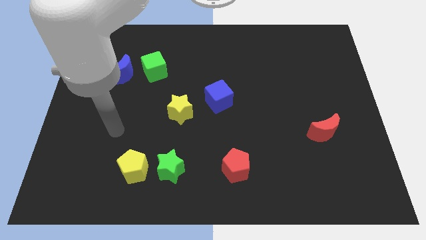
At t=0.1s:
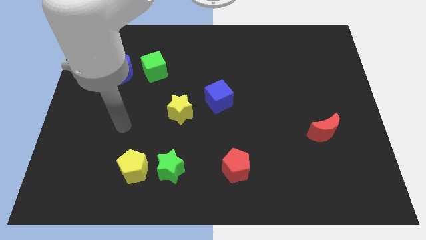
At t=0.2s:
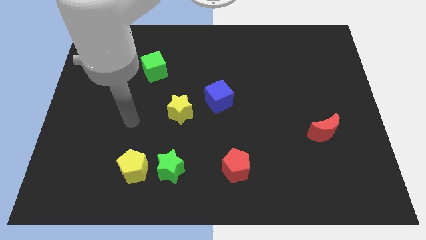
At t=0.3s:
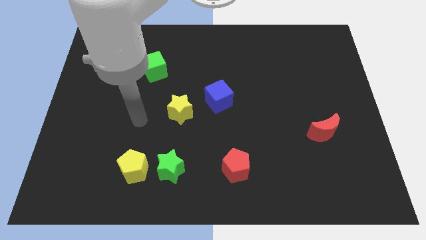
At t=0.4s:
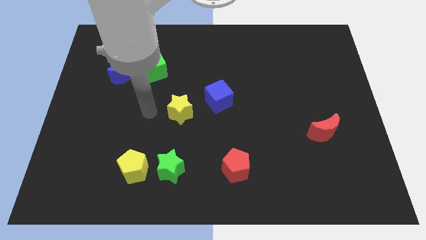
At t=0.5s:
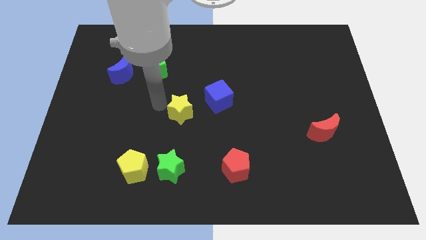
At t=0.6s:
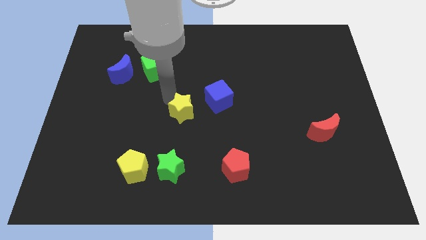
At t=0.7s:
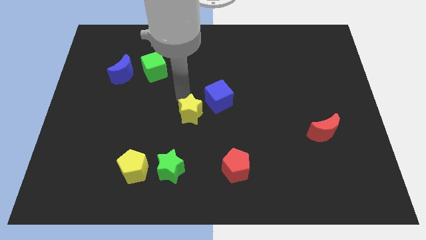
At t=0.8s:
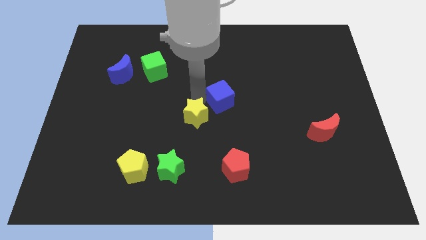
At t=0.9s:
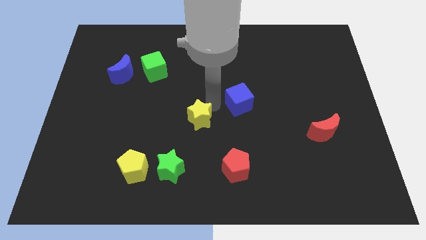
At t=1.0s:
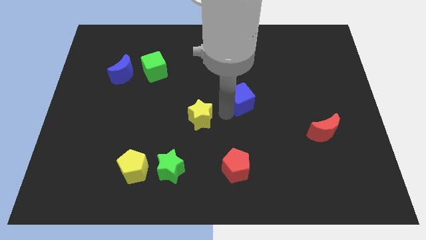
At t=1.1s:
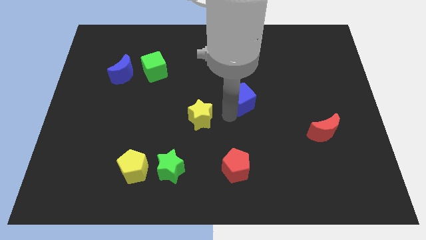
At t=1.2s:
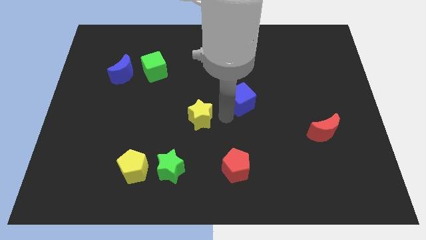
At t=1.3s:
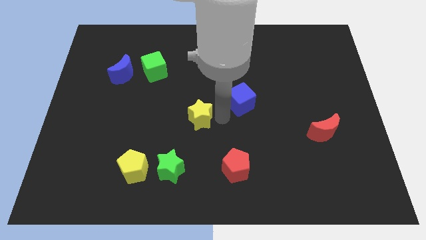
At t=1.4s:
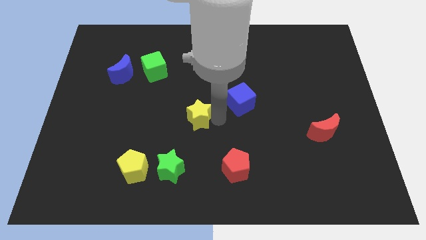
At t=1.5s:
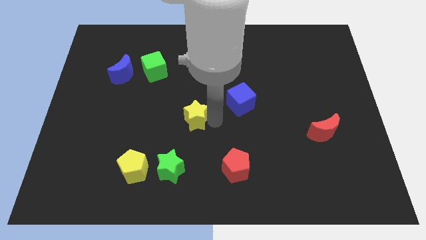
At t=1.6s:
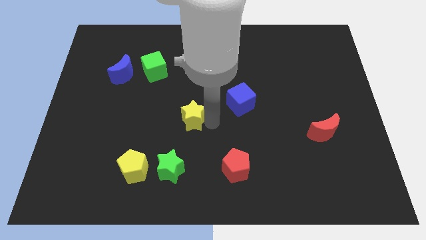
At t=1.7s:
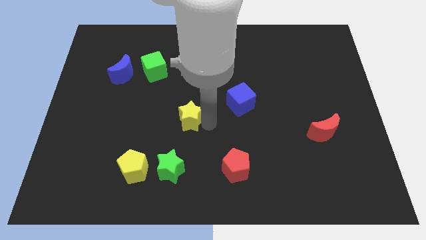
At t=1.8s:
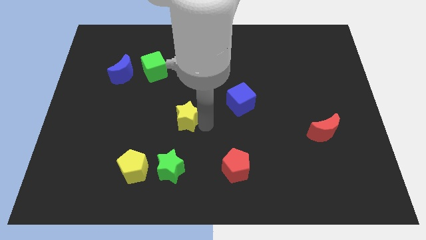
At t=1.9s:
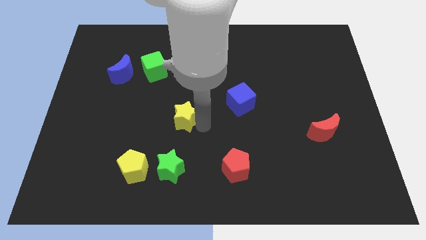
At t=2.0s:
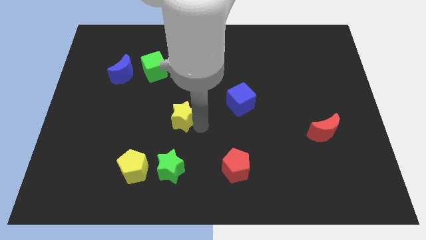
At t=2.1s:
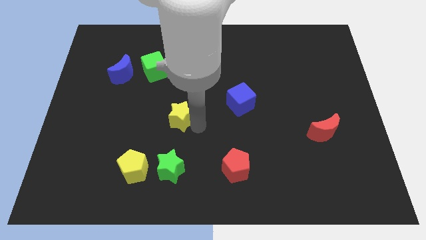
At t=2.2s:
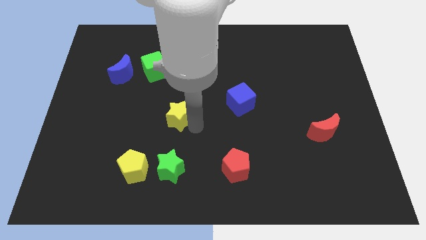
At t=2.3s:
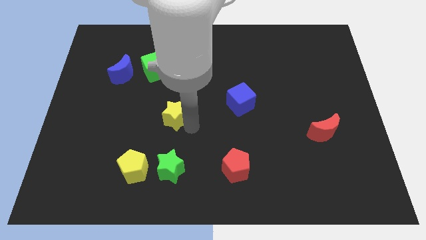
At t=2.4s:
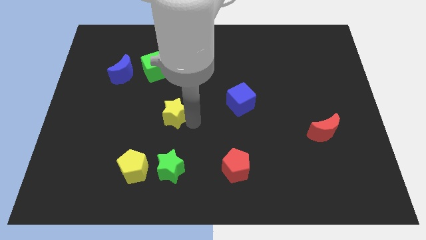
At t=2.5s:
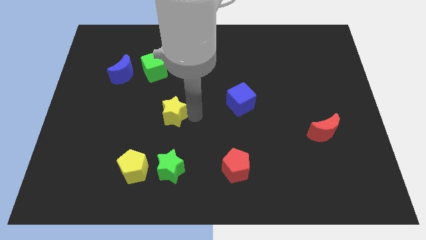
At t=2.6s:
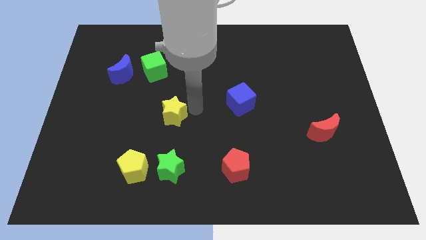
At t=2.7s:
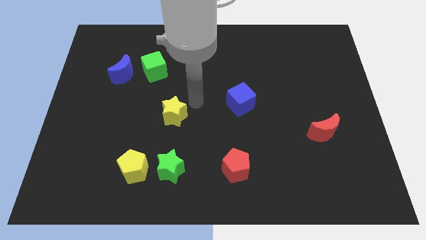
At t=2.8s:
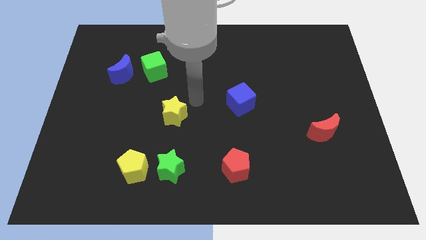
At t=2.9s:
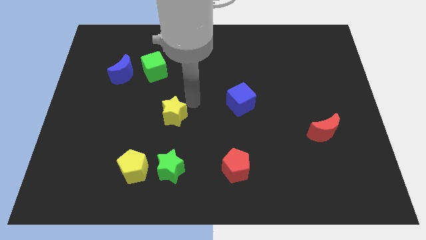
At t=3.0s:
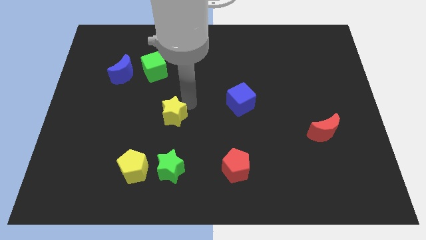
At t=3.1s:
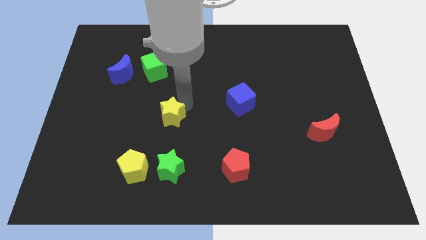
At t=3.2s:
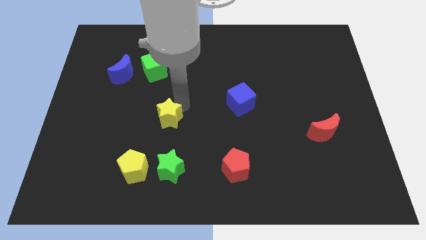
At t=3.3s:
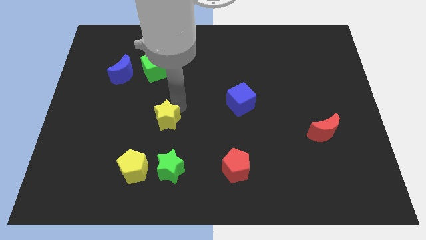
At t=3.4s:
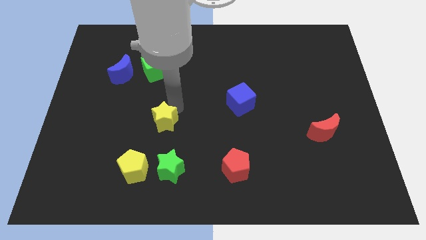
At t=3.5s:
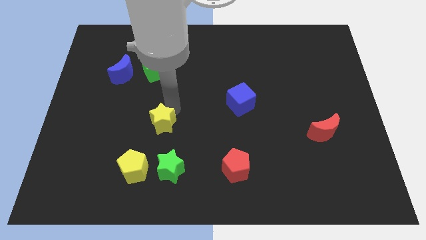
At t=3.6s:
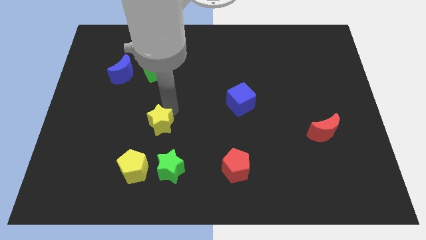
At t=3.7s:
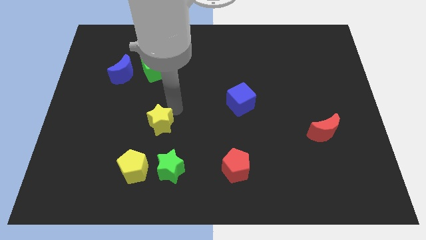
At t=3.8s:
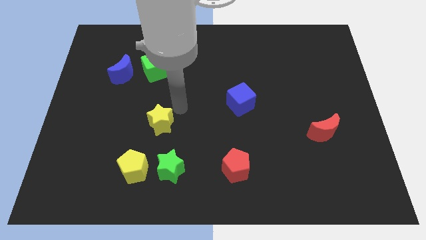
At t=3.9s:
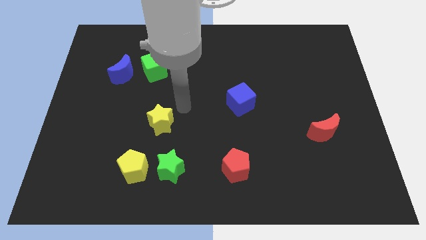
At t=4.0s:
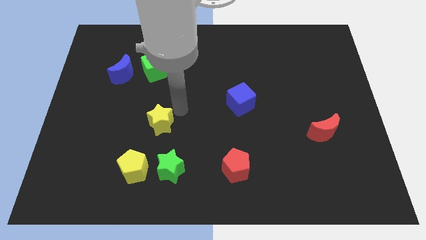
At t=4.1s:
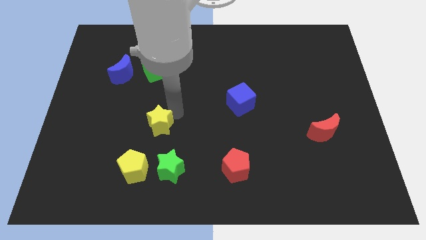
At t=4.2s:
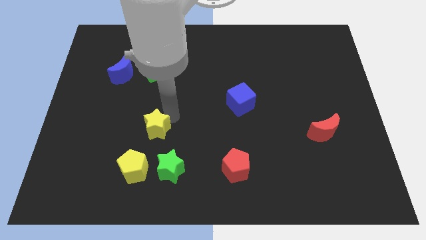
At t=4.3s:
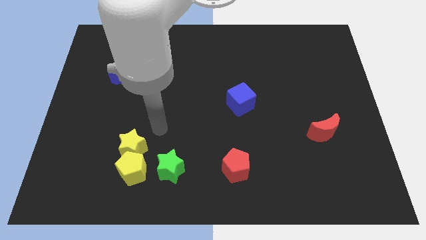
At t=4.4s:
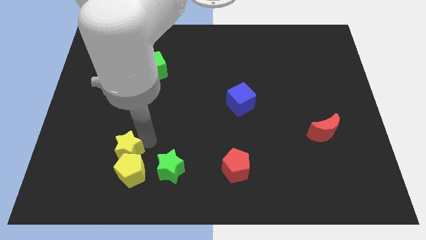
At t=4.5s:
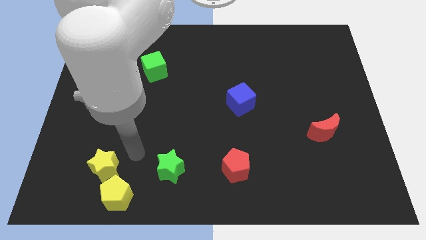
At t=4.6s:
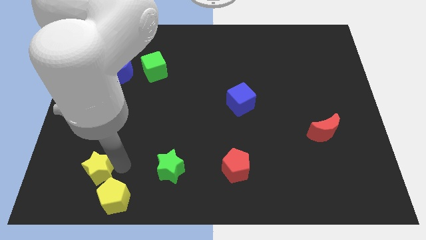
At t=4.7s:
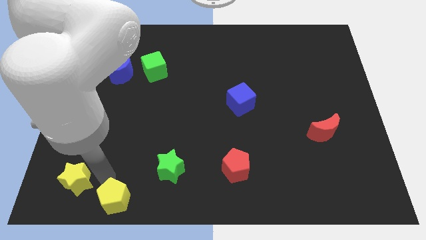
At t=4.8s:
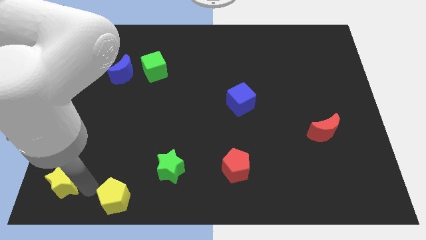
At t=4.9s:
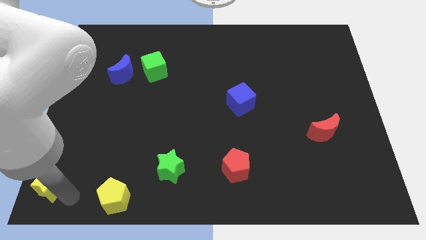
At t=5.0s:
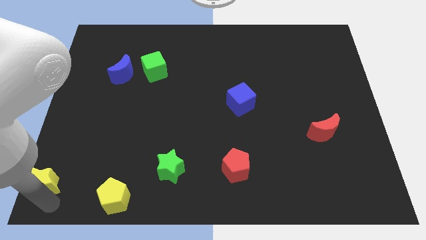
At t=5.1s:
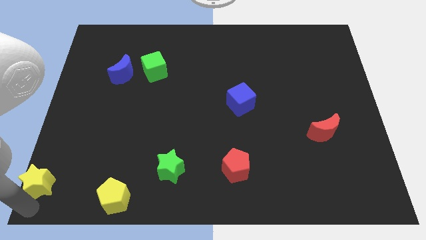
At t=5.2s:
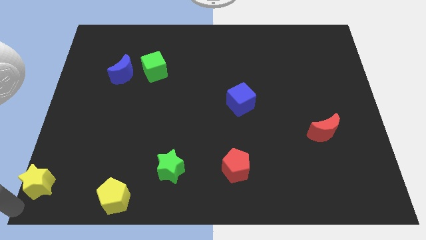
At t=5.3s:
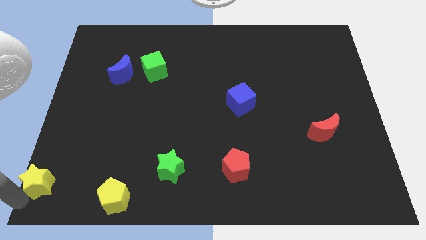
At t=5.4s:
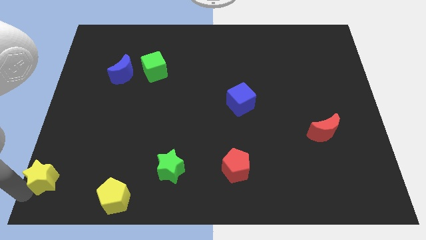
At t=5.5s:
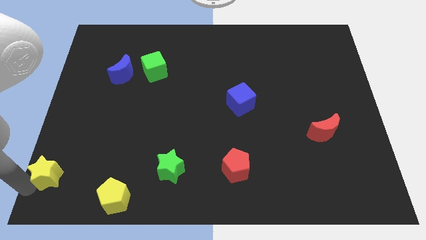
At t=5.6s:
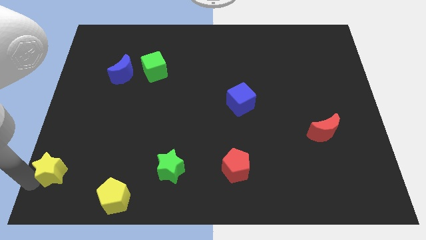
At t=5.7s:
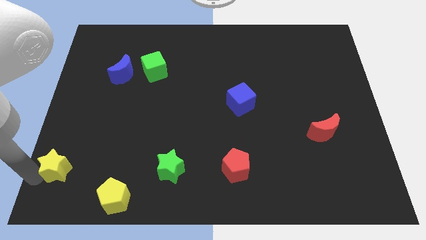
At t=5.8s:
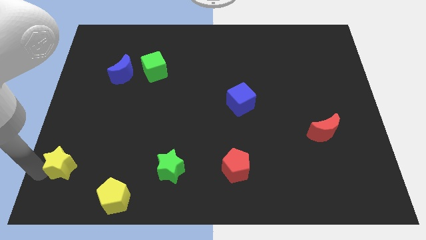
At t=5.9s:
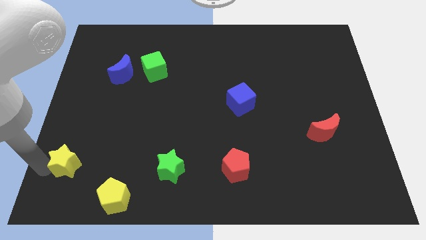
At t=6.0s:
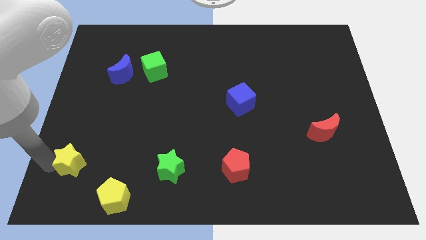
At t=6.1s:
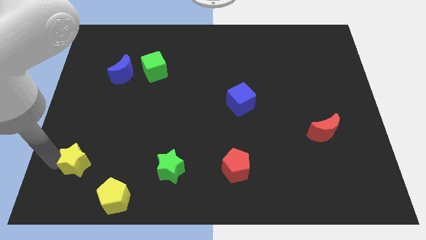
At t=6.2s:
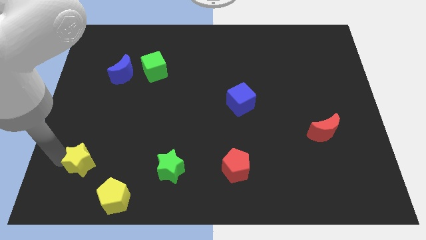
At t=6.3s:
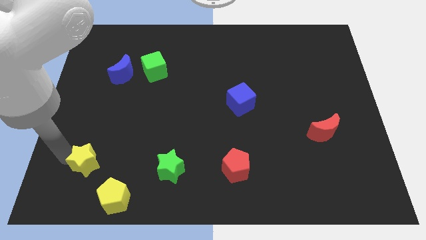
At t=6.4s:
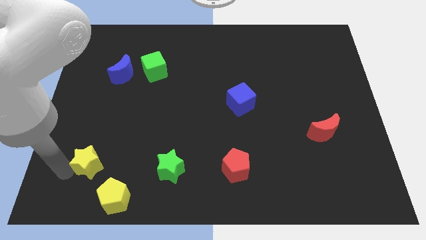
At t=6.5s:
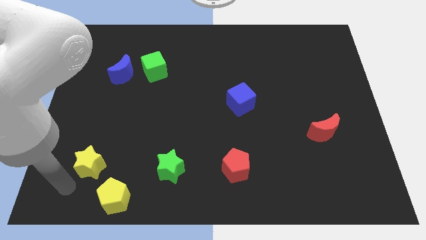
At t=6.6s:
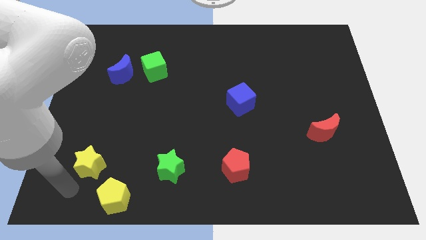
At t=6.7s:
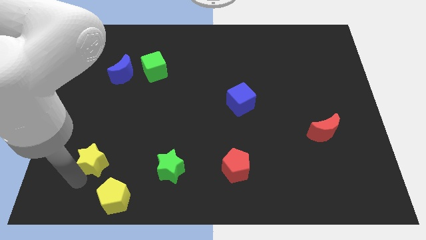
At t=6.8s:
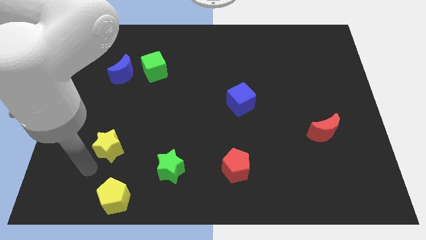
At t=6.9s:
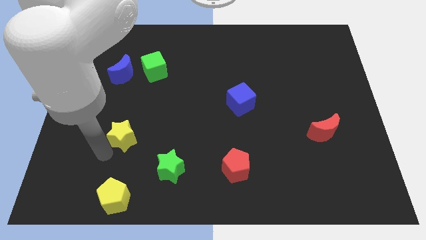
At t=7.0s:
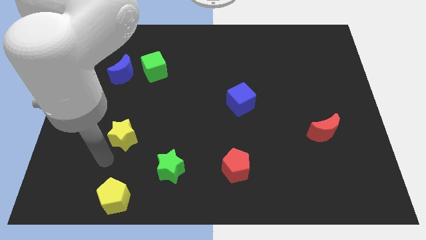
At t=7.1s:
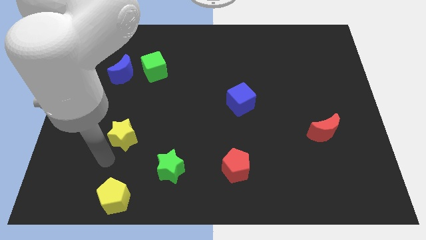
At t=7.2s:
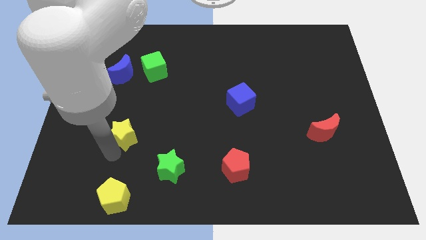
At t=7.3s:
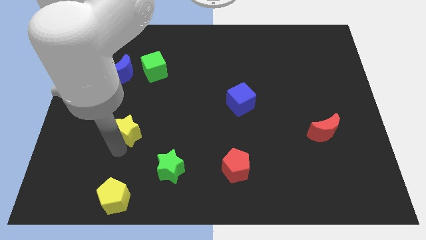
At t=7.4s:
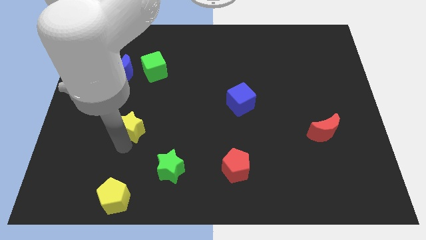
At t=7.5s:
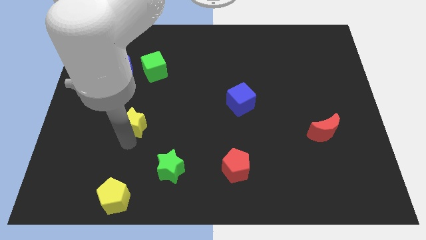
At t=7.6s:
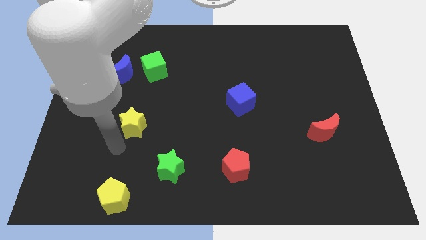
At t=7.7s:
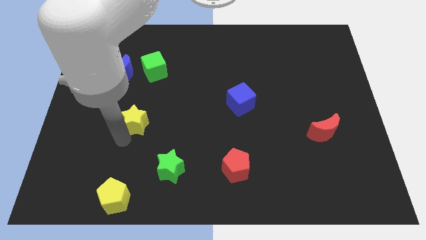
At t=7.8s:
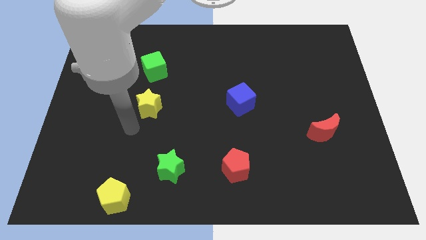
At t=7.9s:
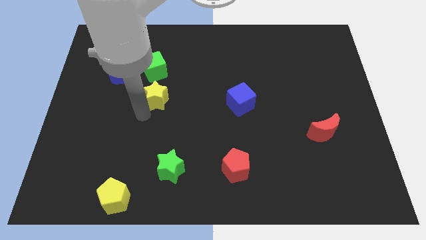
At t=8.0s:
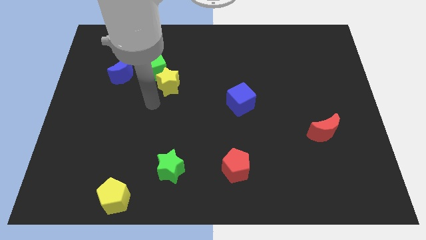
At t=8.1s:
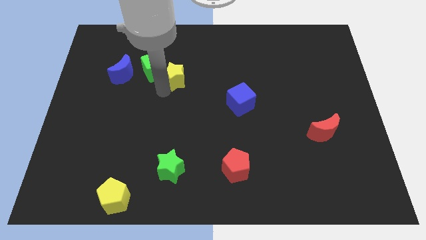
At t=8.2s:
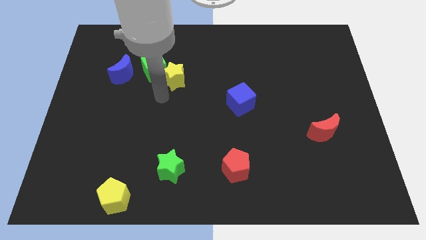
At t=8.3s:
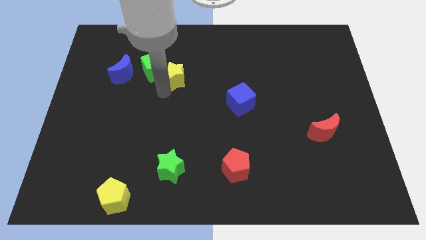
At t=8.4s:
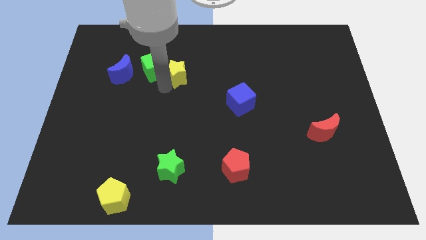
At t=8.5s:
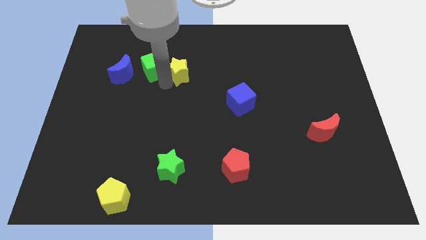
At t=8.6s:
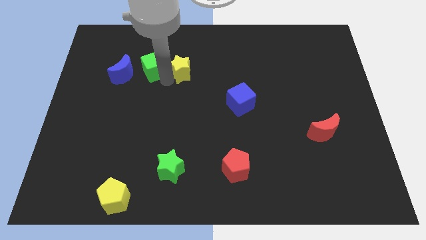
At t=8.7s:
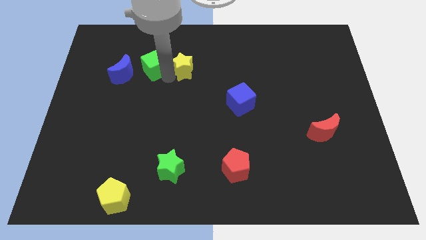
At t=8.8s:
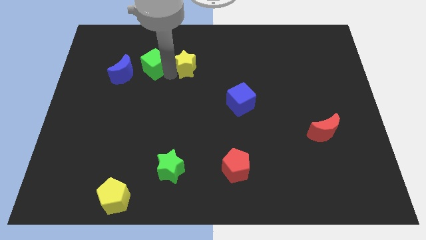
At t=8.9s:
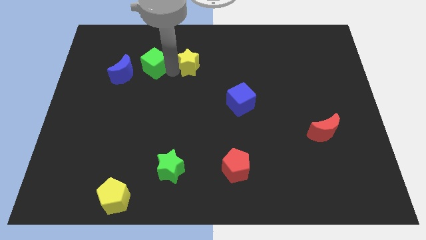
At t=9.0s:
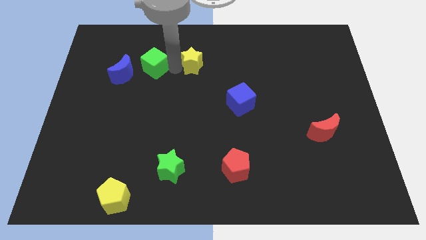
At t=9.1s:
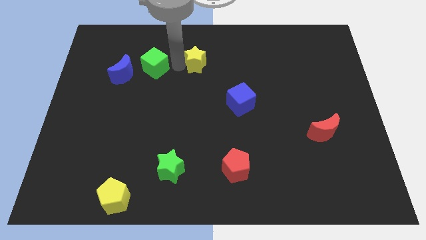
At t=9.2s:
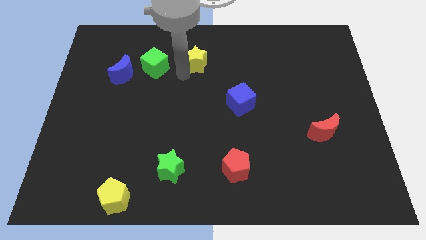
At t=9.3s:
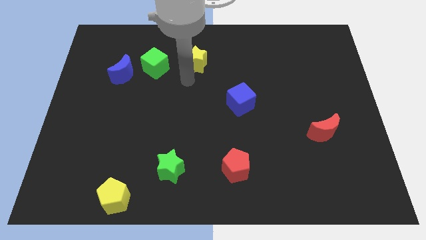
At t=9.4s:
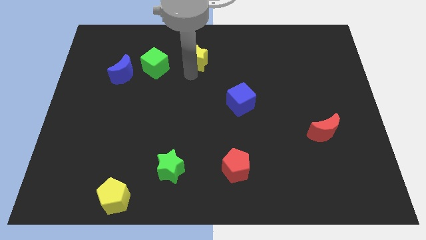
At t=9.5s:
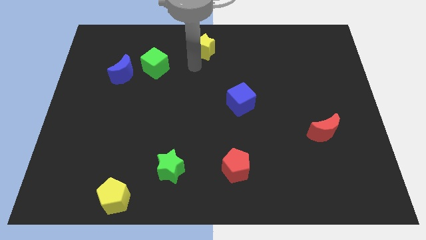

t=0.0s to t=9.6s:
push the yellow star to the towards your base
